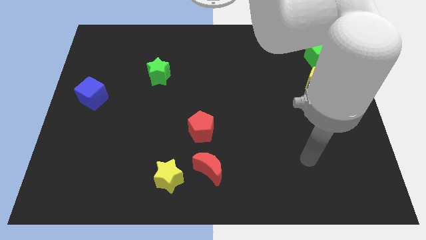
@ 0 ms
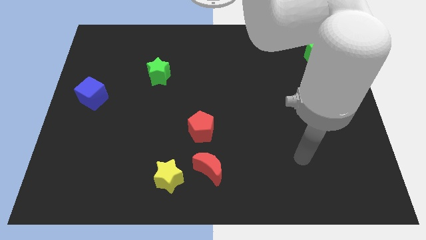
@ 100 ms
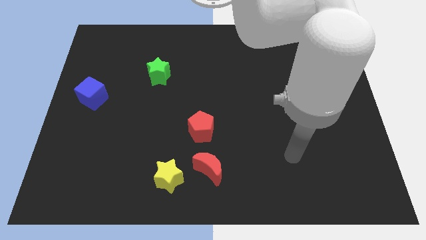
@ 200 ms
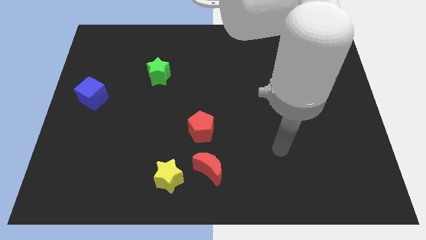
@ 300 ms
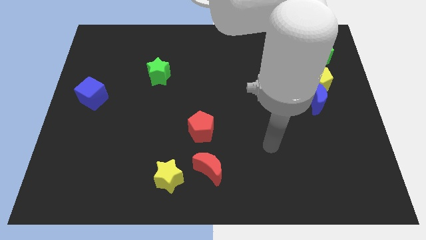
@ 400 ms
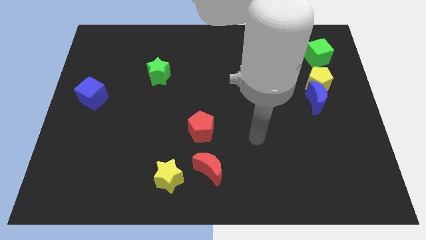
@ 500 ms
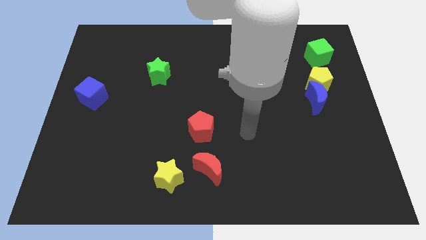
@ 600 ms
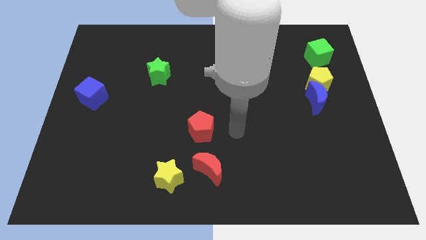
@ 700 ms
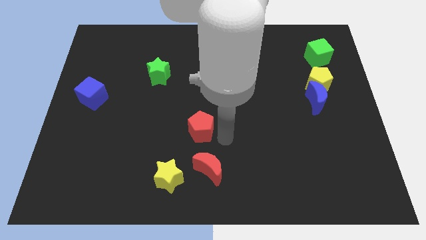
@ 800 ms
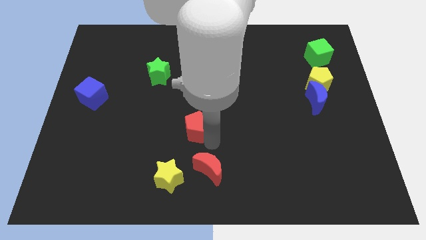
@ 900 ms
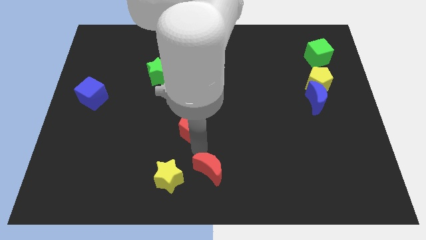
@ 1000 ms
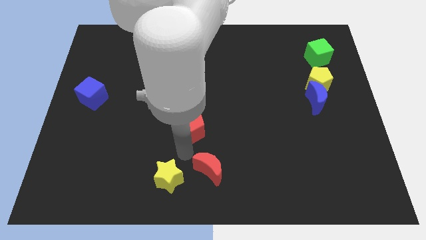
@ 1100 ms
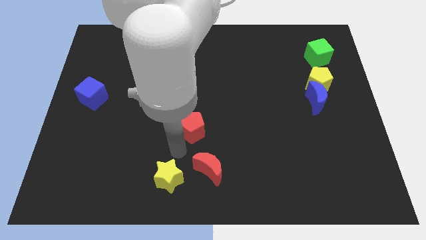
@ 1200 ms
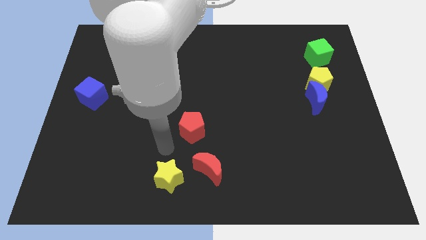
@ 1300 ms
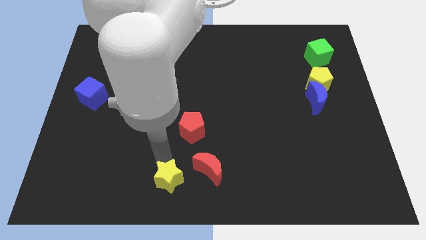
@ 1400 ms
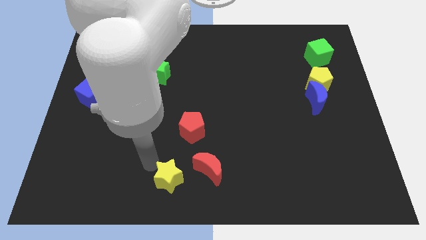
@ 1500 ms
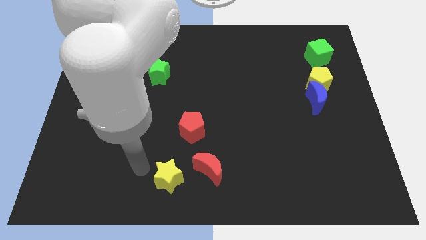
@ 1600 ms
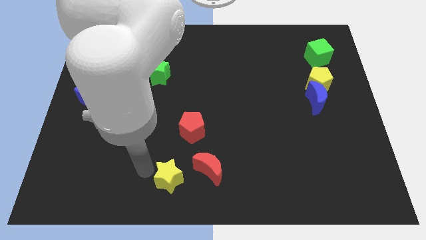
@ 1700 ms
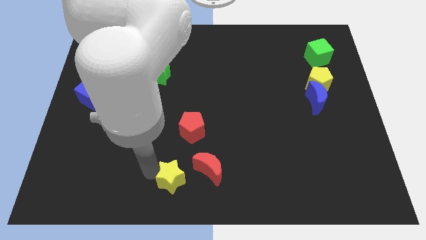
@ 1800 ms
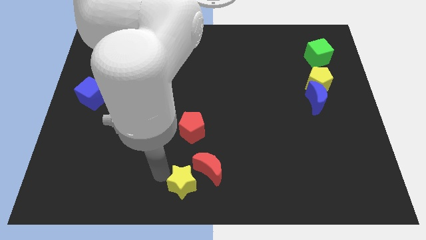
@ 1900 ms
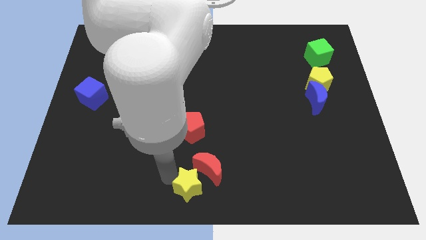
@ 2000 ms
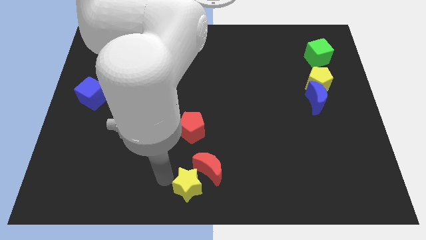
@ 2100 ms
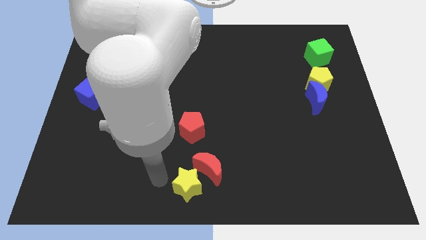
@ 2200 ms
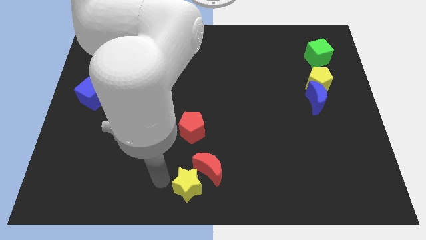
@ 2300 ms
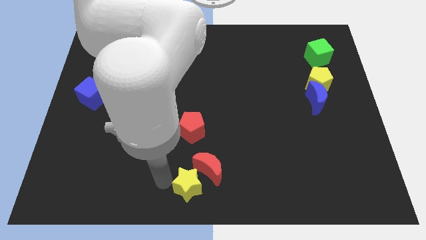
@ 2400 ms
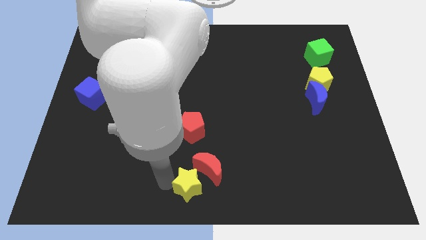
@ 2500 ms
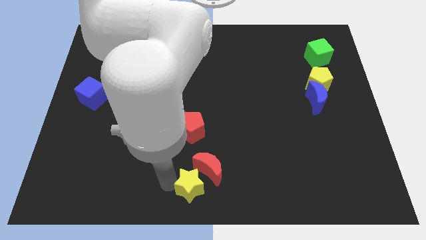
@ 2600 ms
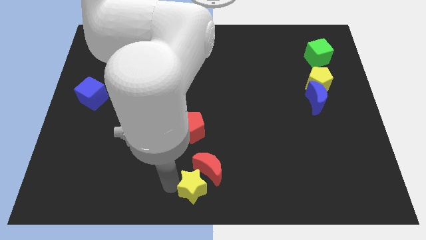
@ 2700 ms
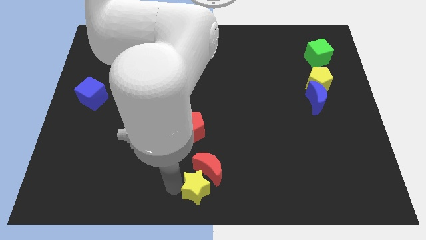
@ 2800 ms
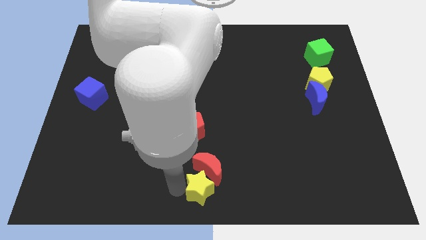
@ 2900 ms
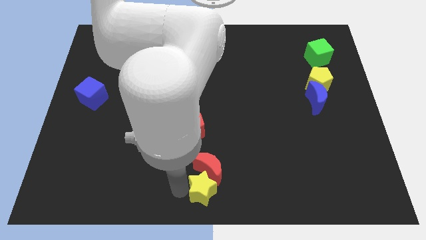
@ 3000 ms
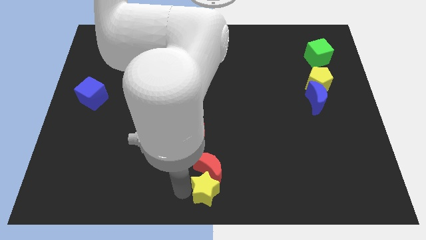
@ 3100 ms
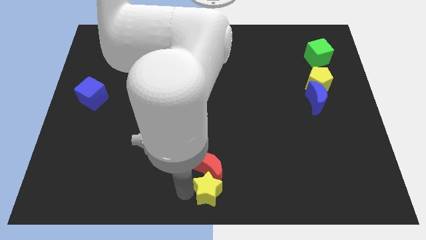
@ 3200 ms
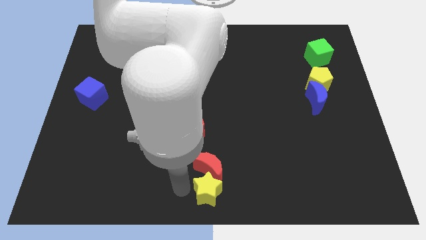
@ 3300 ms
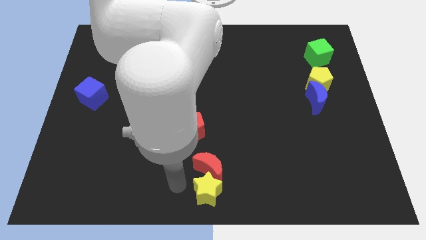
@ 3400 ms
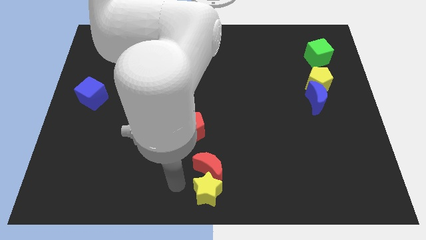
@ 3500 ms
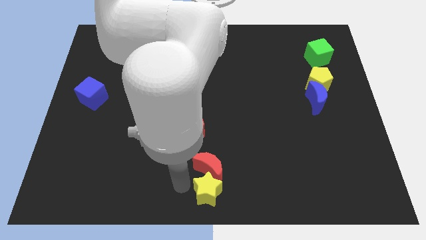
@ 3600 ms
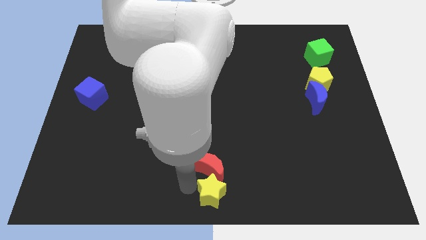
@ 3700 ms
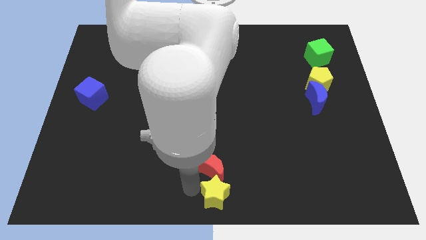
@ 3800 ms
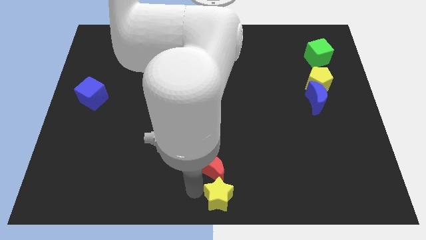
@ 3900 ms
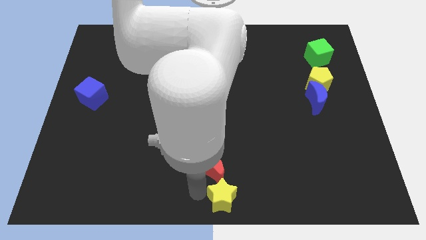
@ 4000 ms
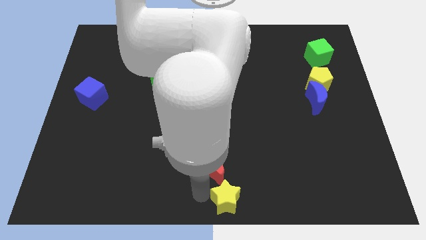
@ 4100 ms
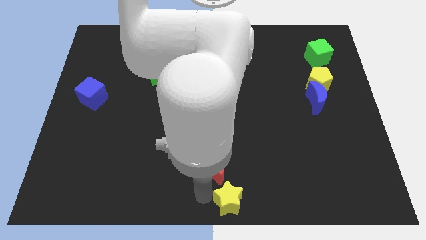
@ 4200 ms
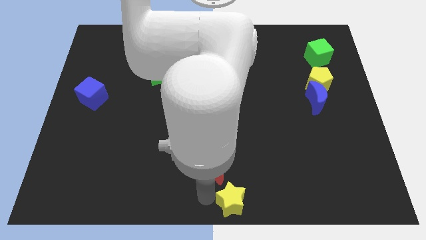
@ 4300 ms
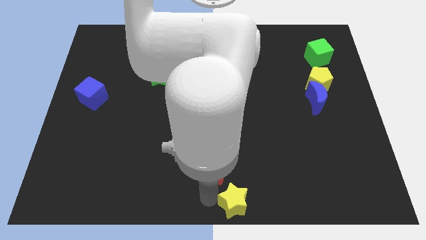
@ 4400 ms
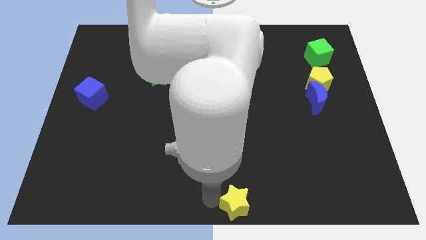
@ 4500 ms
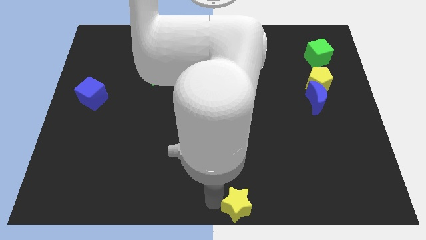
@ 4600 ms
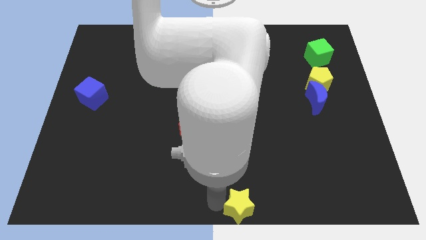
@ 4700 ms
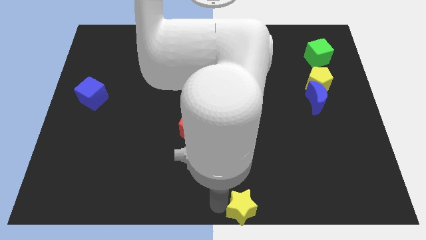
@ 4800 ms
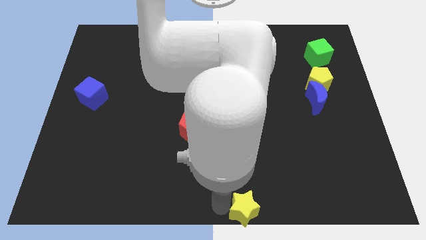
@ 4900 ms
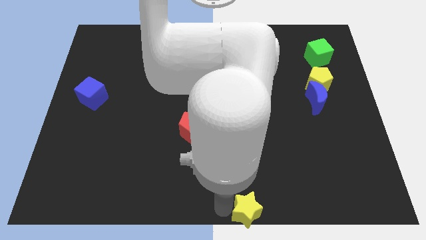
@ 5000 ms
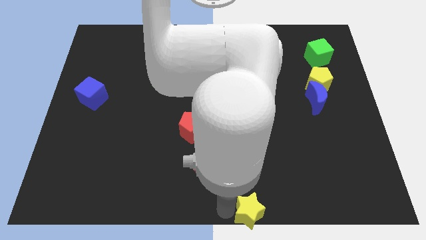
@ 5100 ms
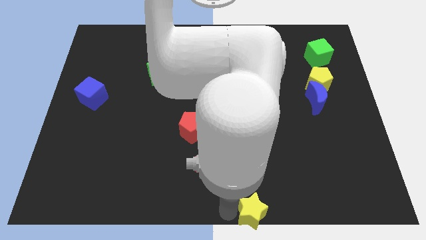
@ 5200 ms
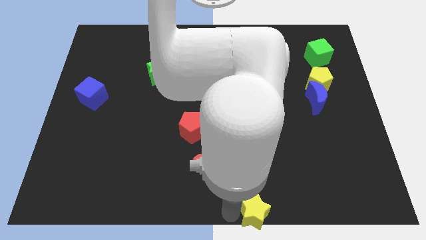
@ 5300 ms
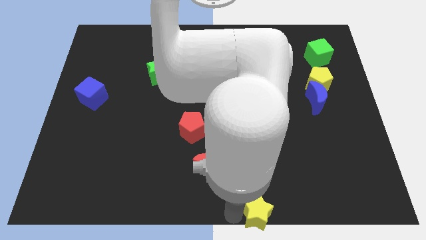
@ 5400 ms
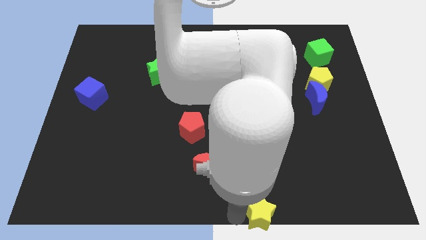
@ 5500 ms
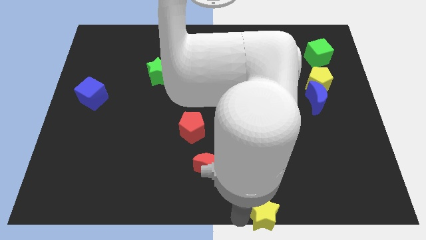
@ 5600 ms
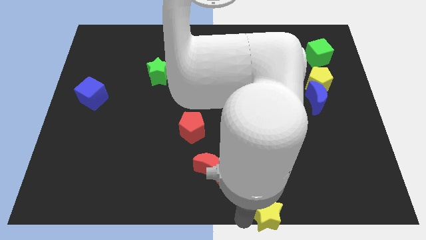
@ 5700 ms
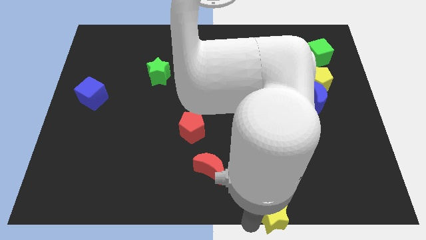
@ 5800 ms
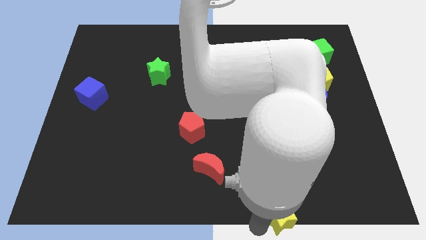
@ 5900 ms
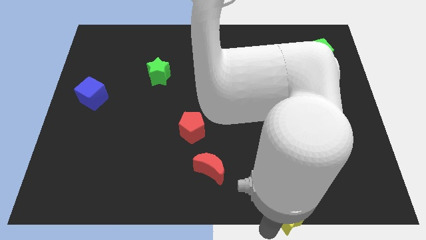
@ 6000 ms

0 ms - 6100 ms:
slide the yellow star right

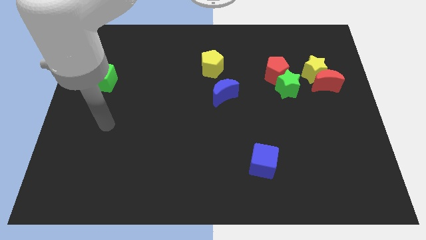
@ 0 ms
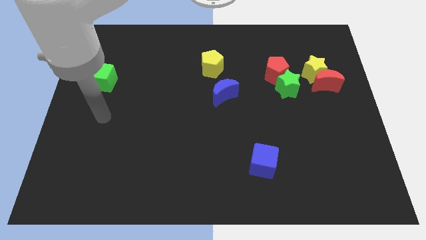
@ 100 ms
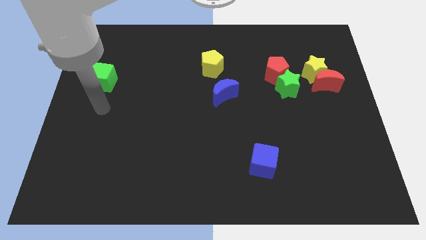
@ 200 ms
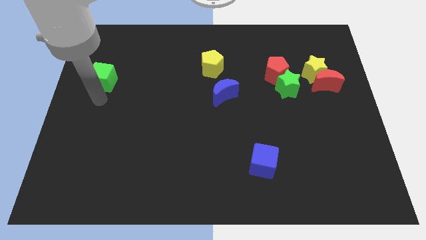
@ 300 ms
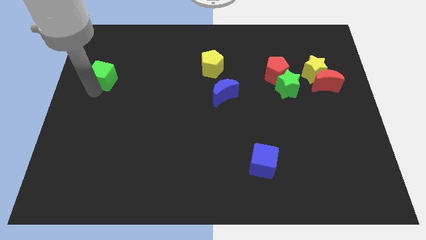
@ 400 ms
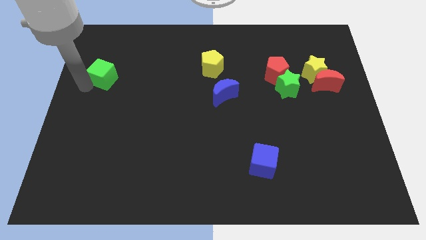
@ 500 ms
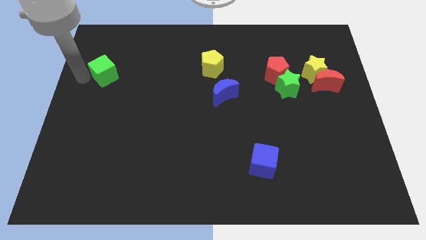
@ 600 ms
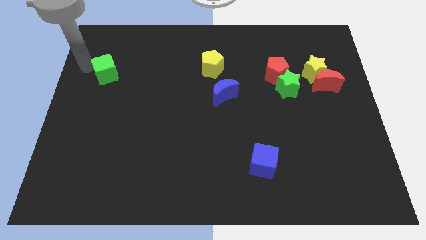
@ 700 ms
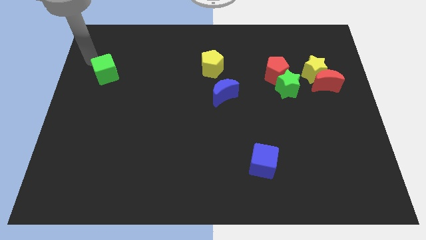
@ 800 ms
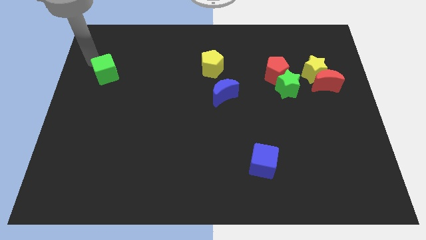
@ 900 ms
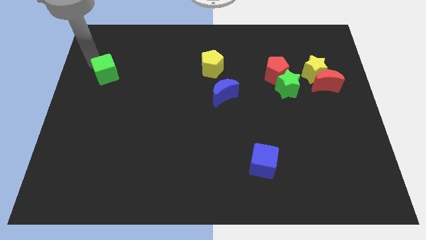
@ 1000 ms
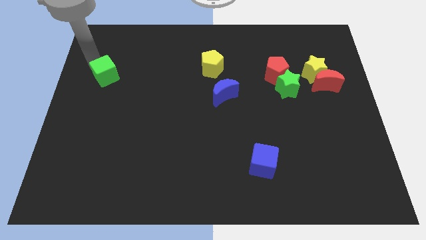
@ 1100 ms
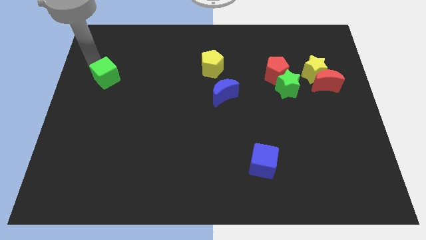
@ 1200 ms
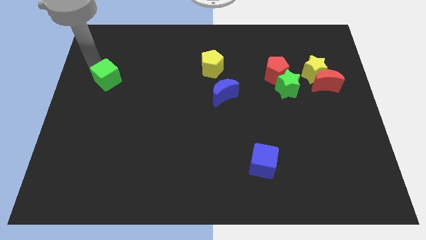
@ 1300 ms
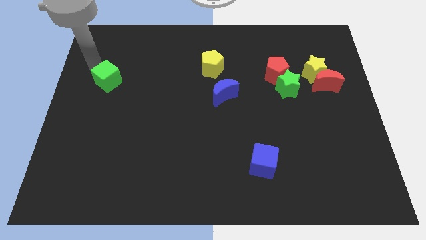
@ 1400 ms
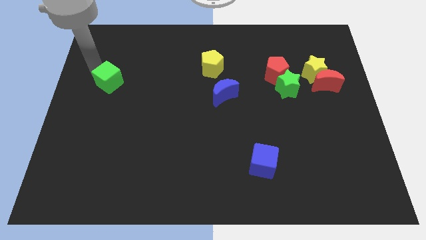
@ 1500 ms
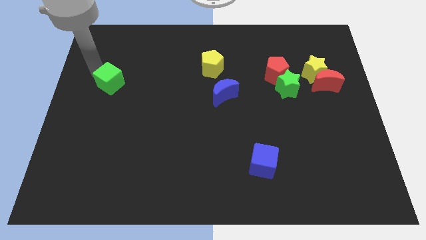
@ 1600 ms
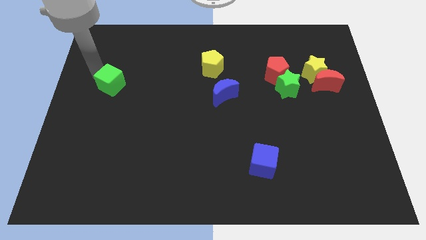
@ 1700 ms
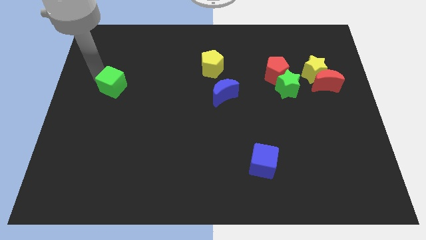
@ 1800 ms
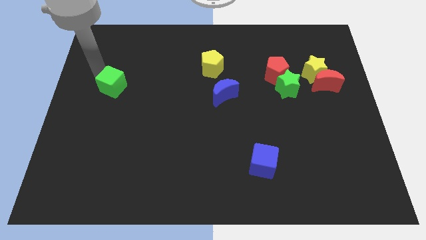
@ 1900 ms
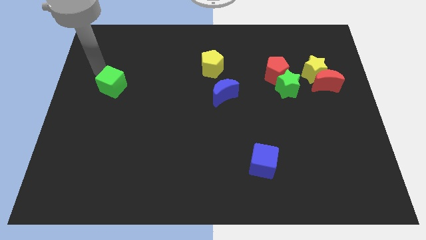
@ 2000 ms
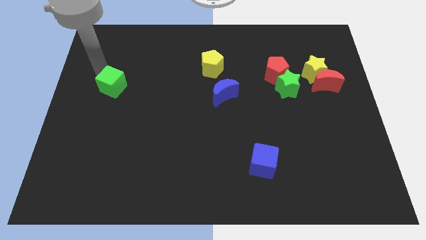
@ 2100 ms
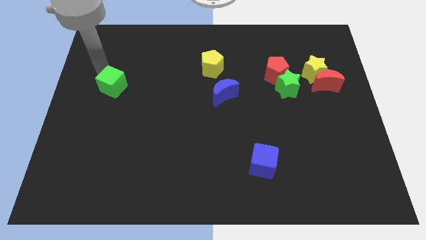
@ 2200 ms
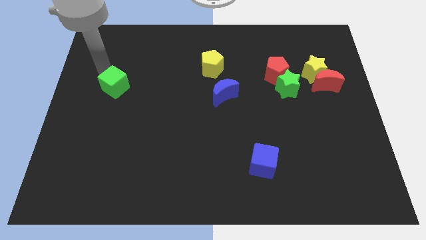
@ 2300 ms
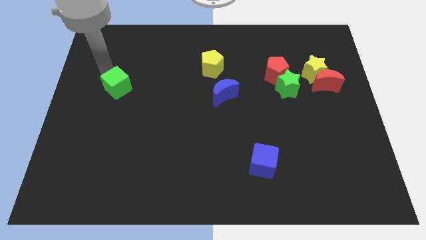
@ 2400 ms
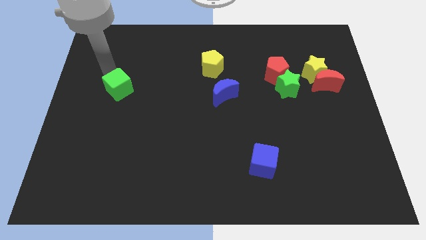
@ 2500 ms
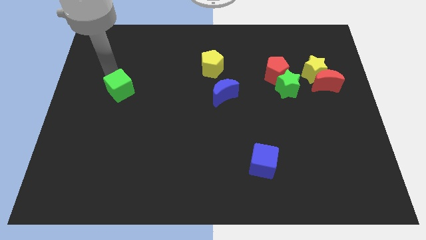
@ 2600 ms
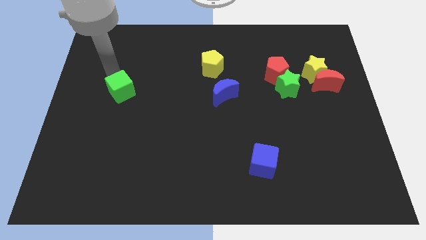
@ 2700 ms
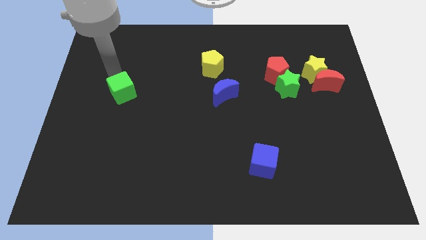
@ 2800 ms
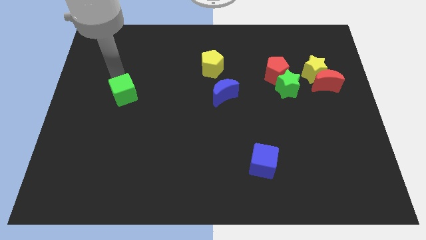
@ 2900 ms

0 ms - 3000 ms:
slide the green cube diagonally downwards and right a bit
